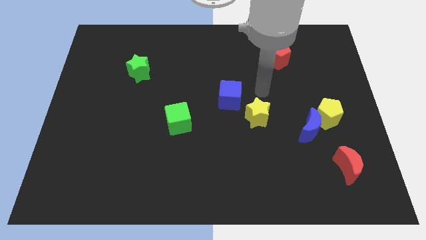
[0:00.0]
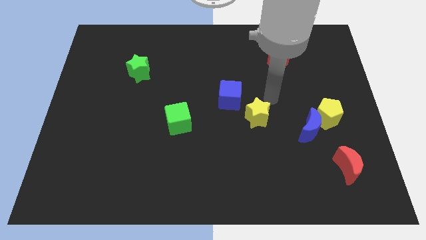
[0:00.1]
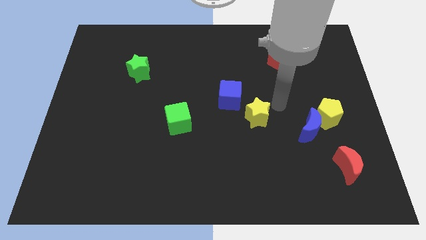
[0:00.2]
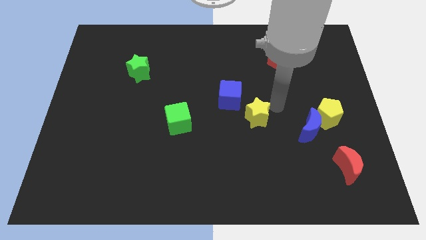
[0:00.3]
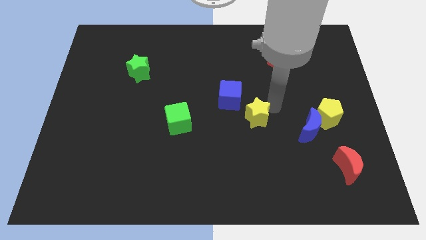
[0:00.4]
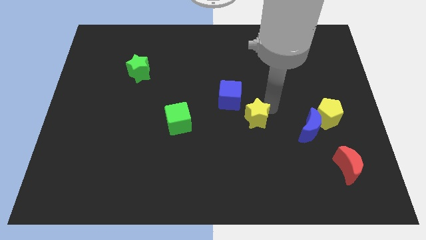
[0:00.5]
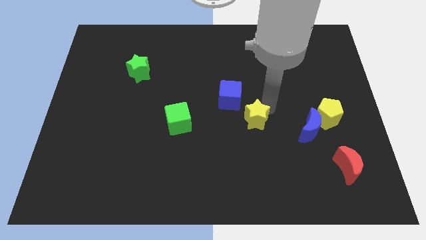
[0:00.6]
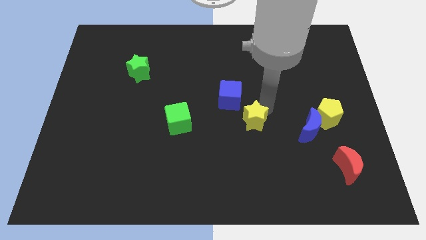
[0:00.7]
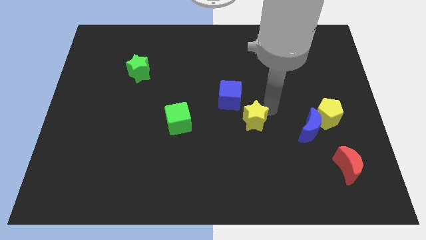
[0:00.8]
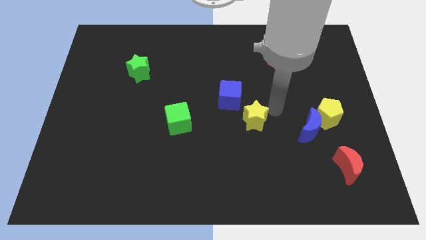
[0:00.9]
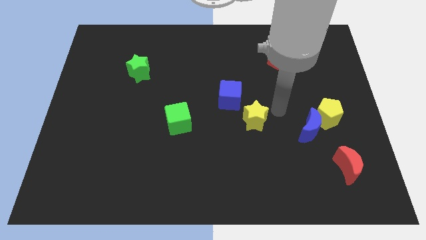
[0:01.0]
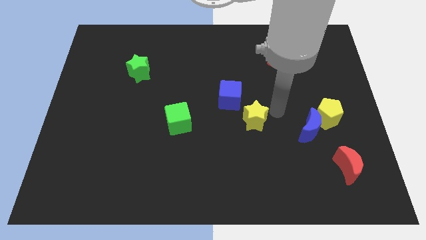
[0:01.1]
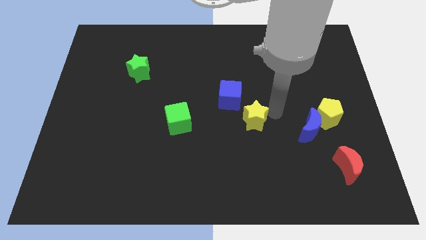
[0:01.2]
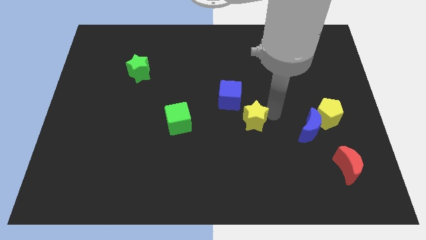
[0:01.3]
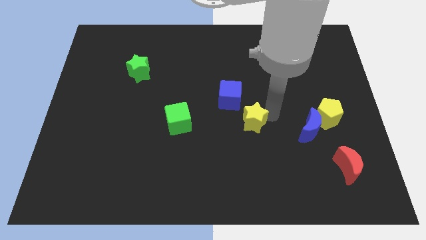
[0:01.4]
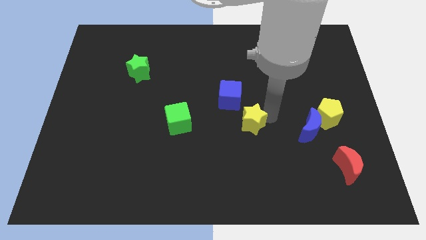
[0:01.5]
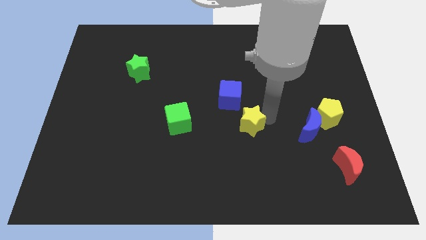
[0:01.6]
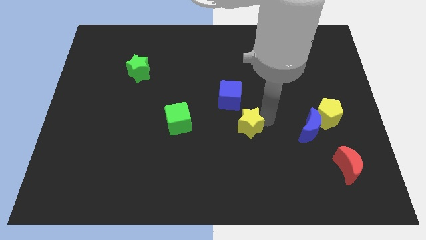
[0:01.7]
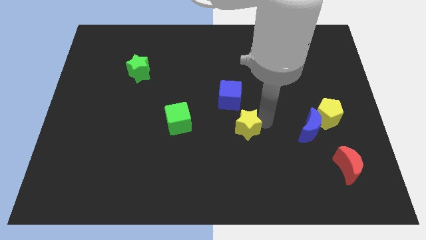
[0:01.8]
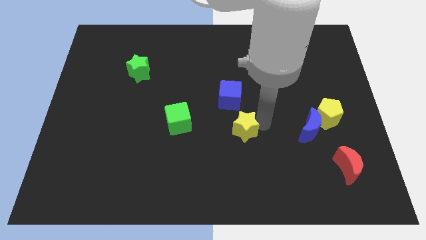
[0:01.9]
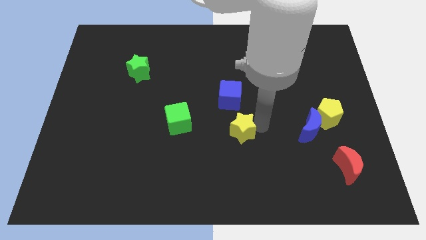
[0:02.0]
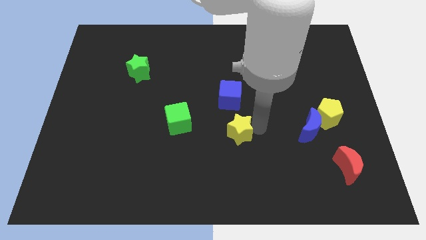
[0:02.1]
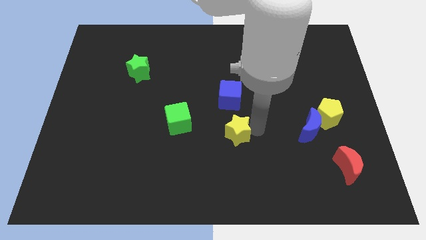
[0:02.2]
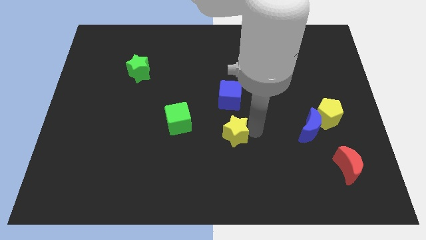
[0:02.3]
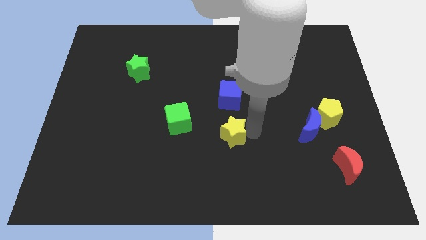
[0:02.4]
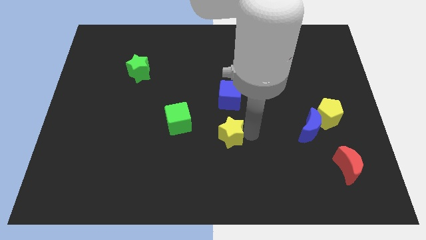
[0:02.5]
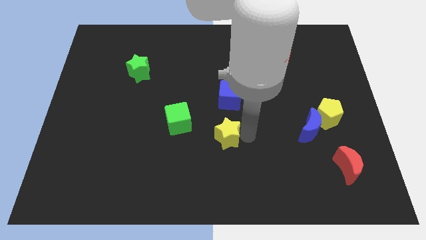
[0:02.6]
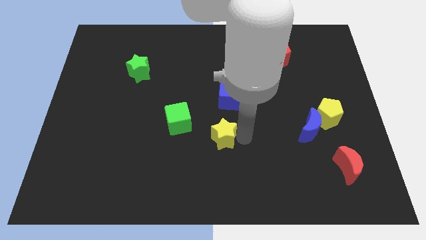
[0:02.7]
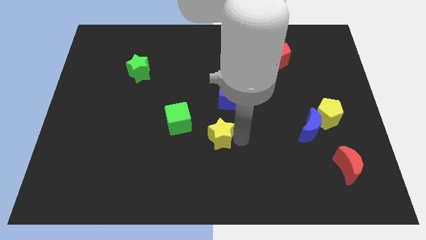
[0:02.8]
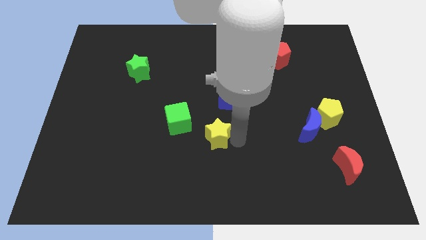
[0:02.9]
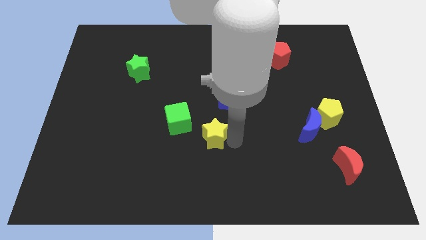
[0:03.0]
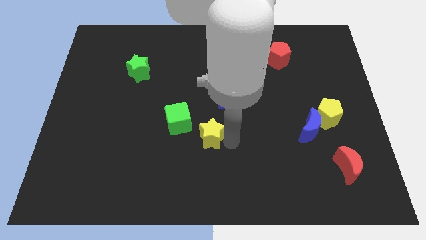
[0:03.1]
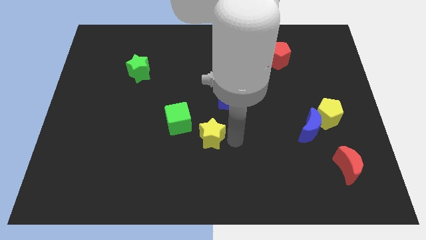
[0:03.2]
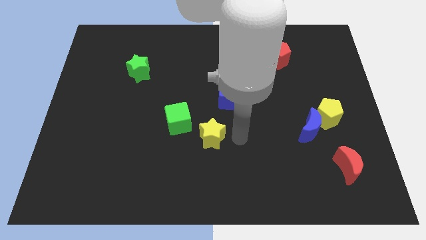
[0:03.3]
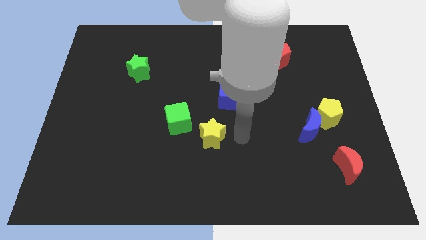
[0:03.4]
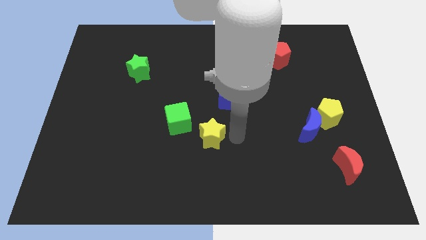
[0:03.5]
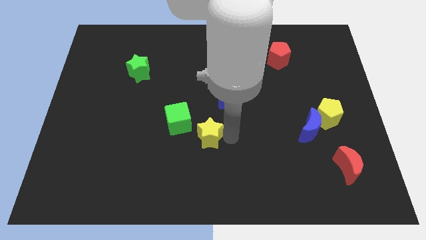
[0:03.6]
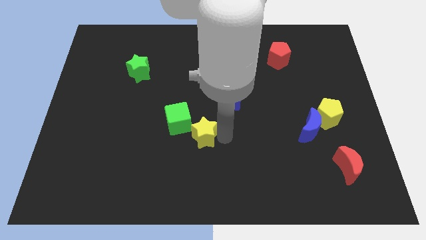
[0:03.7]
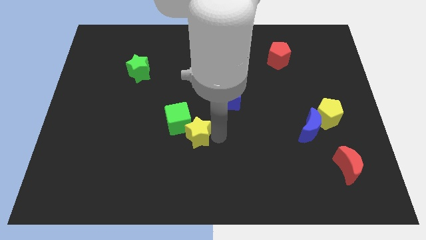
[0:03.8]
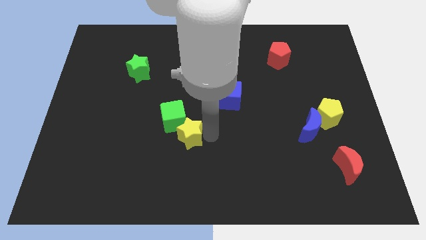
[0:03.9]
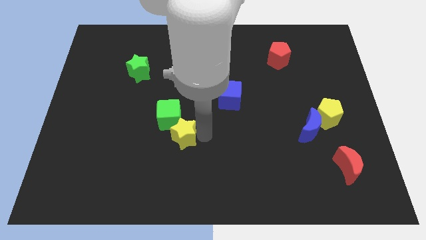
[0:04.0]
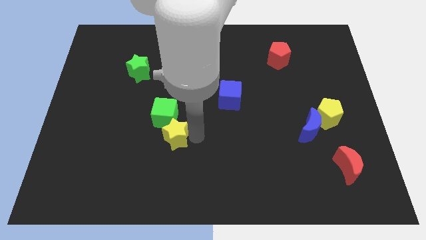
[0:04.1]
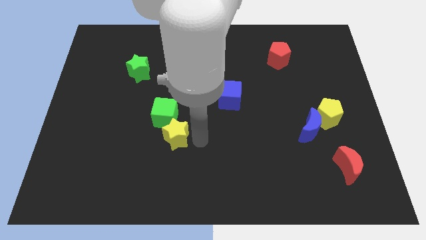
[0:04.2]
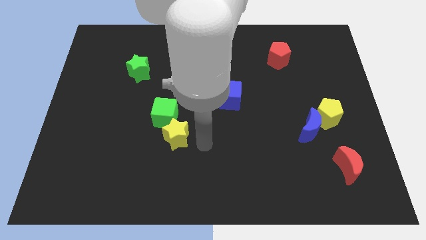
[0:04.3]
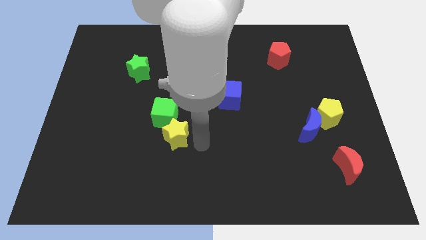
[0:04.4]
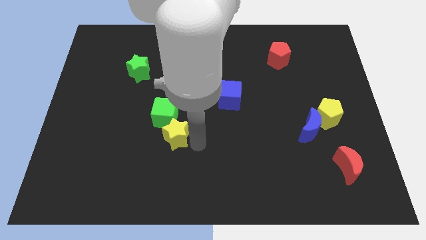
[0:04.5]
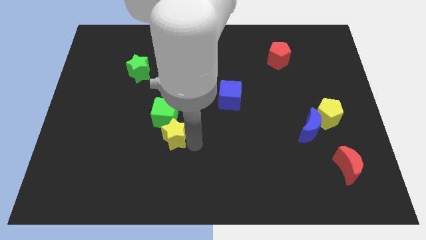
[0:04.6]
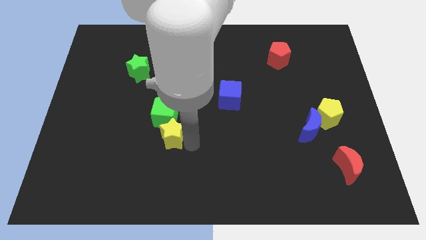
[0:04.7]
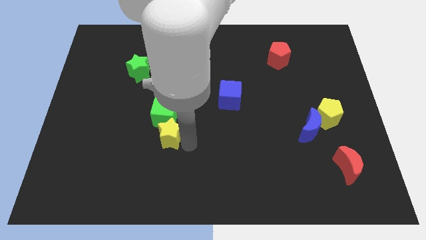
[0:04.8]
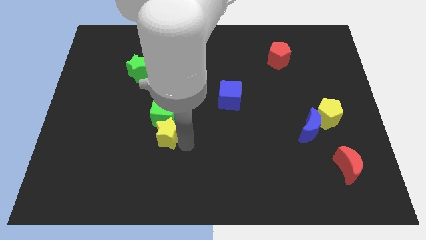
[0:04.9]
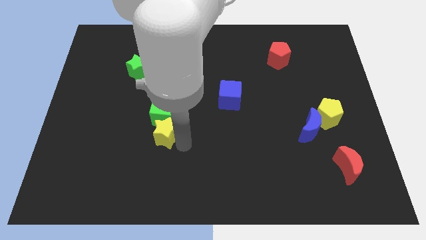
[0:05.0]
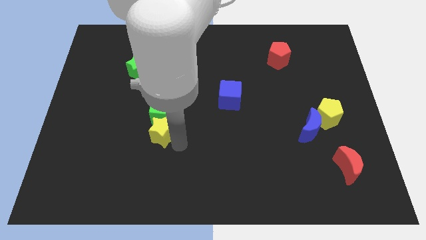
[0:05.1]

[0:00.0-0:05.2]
slide the yellow star left

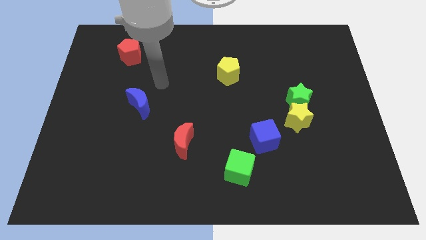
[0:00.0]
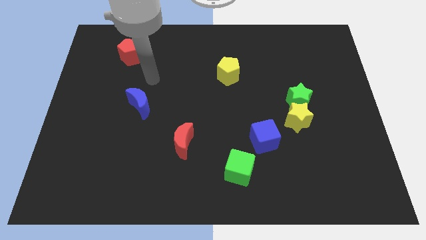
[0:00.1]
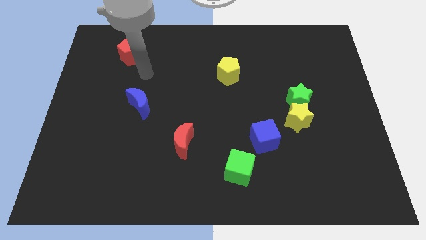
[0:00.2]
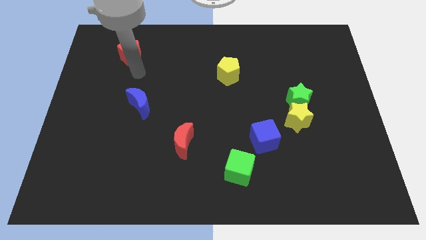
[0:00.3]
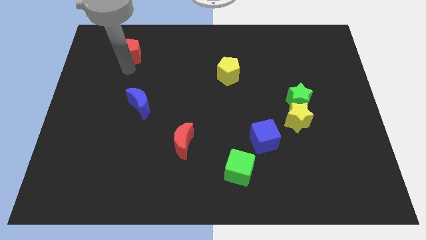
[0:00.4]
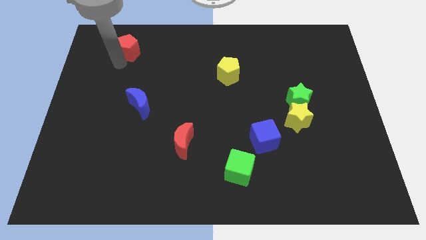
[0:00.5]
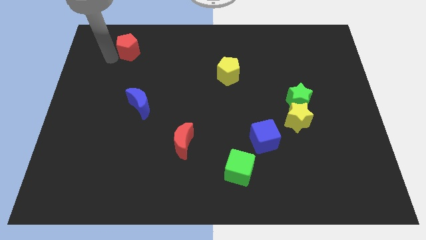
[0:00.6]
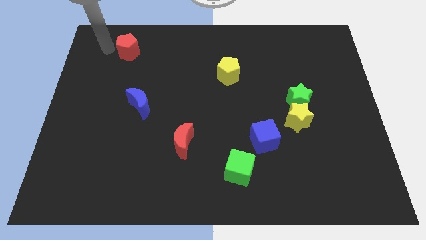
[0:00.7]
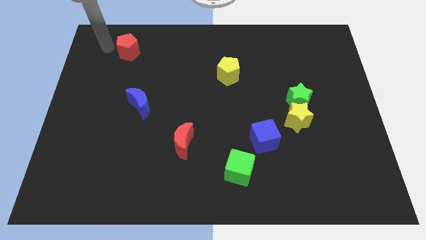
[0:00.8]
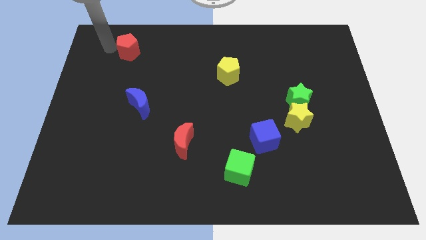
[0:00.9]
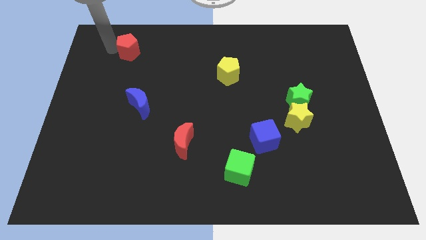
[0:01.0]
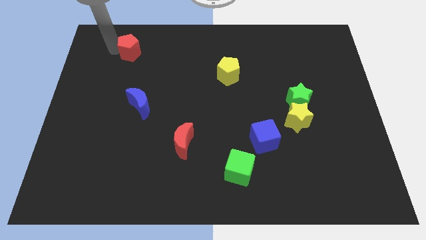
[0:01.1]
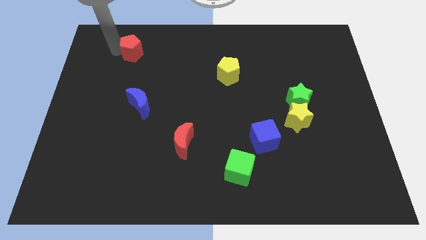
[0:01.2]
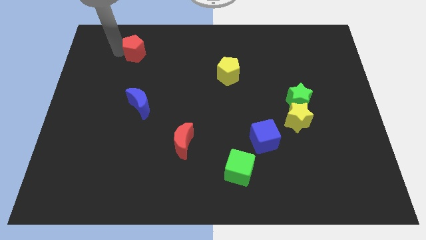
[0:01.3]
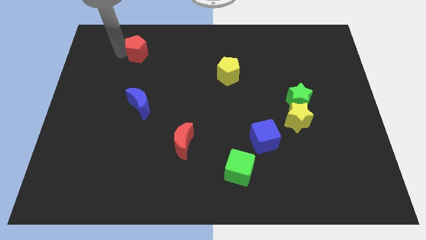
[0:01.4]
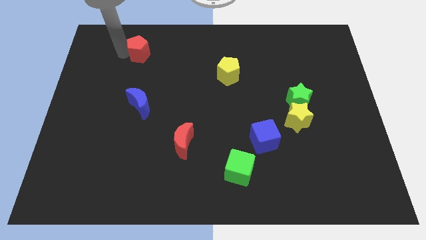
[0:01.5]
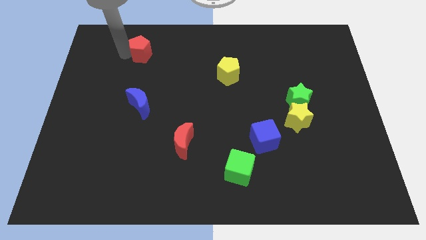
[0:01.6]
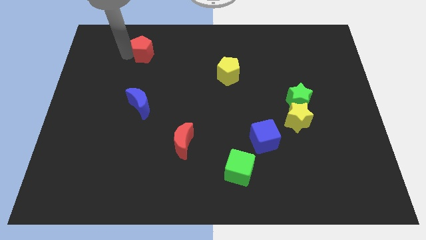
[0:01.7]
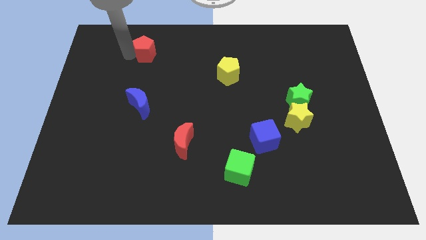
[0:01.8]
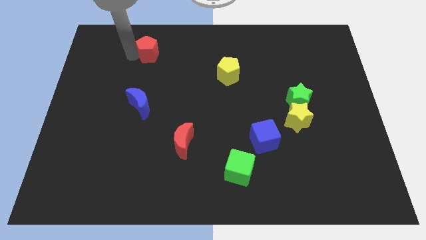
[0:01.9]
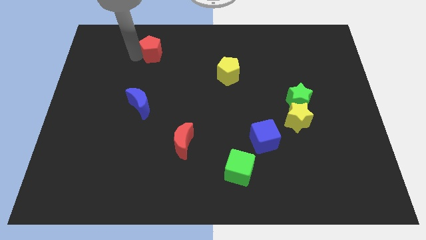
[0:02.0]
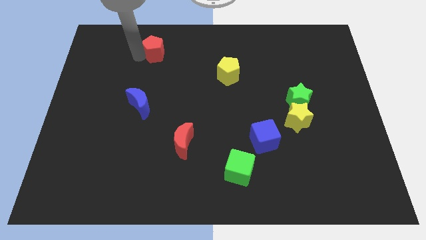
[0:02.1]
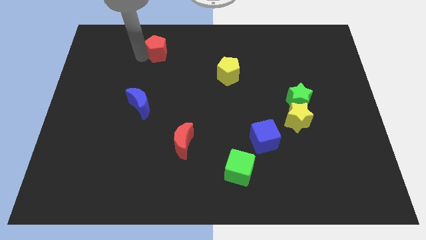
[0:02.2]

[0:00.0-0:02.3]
slide the red pentagon somewhat to the right

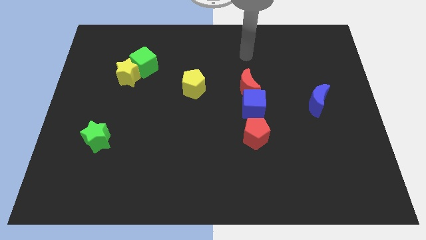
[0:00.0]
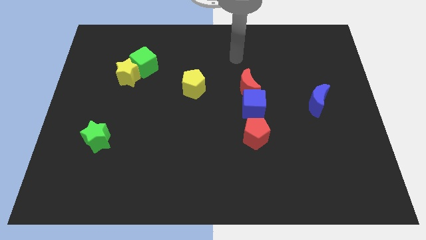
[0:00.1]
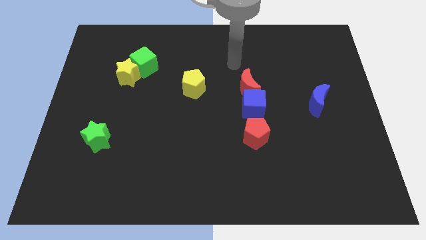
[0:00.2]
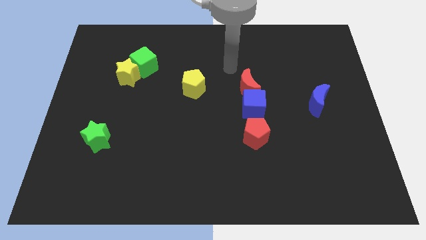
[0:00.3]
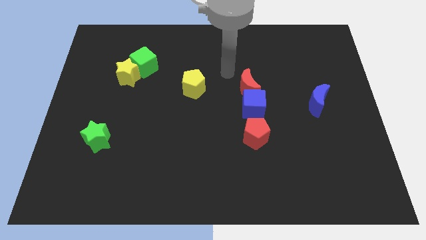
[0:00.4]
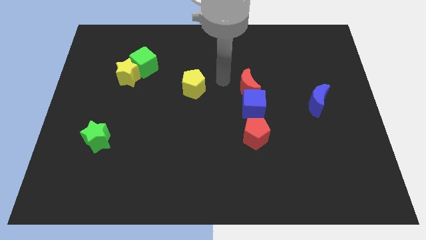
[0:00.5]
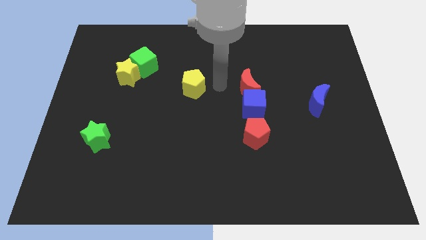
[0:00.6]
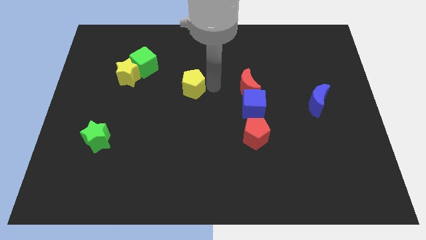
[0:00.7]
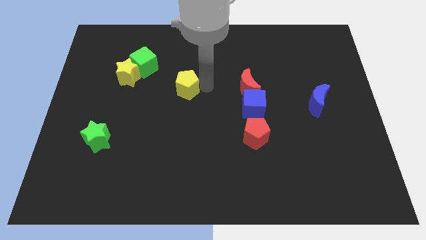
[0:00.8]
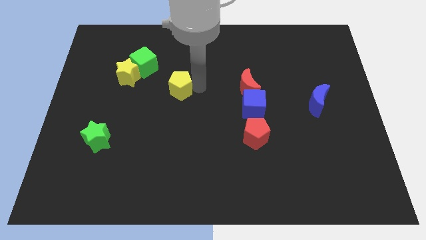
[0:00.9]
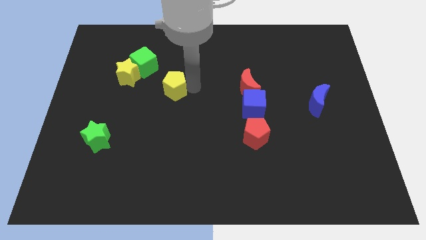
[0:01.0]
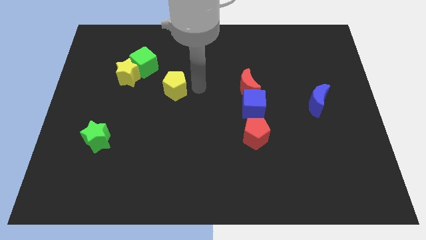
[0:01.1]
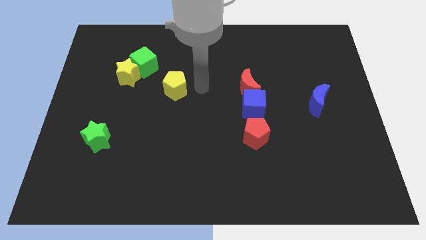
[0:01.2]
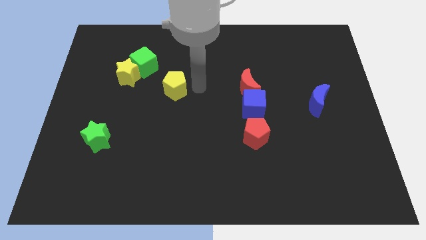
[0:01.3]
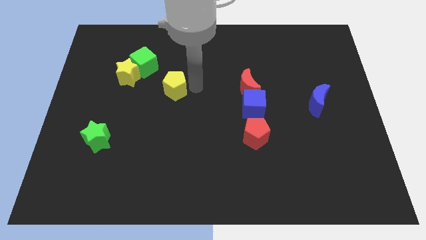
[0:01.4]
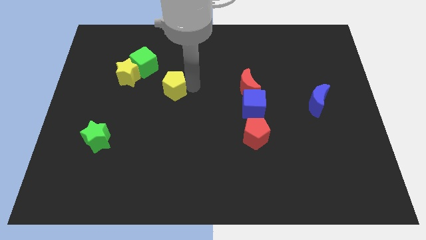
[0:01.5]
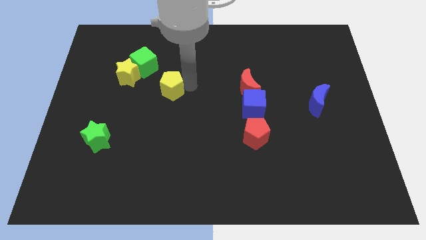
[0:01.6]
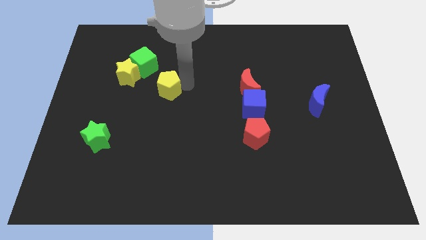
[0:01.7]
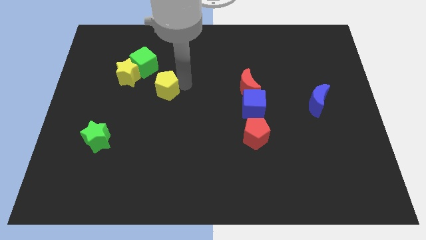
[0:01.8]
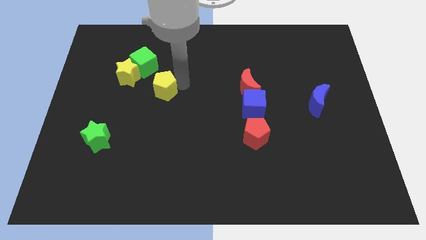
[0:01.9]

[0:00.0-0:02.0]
push the yellow pentagon left somewhat
